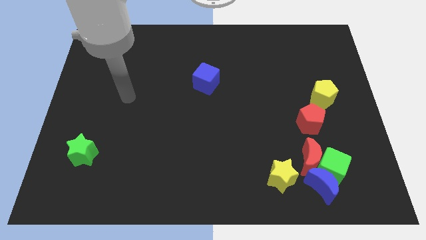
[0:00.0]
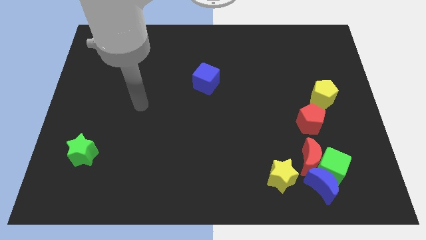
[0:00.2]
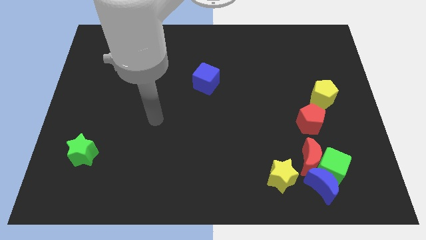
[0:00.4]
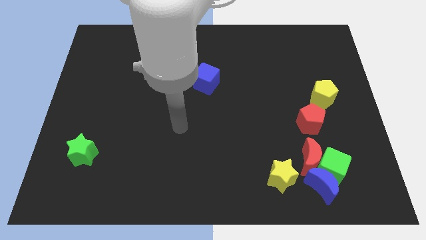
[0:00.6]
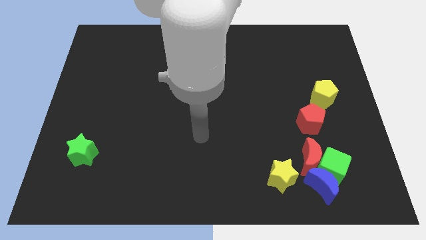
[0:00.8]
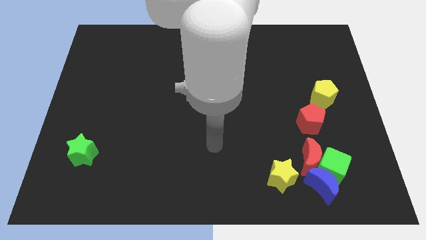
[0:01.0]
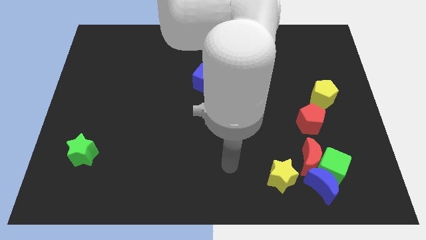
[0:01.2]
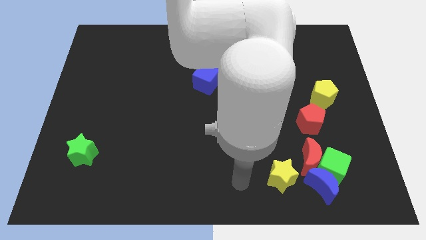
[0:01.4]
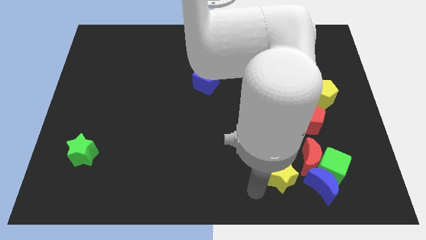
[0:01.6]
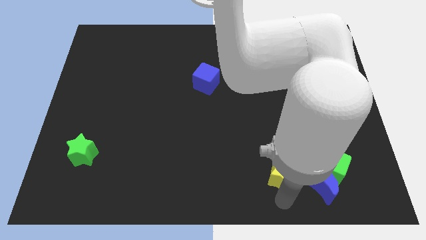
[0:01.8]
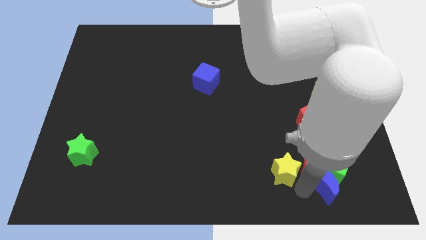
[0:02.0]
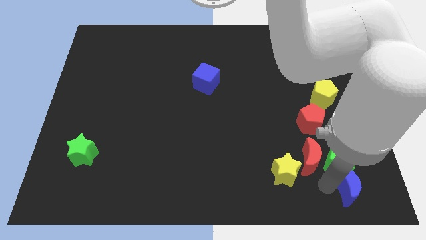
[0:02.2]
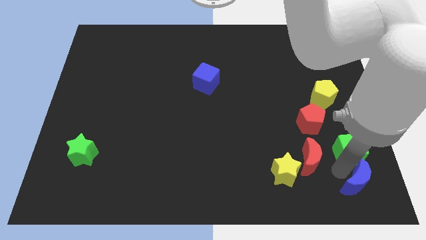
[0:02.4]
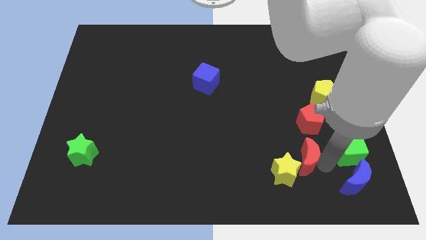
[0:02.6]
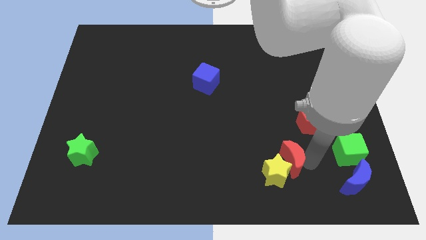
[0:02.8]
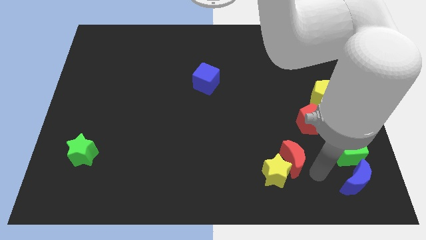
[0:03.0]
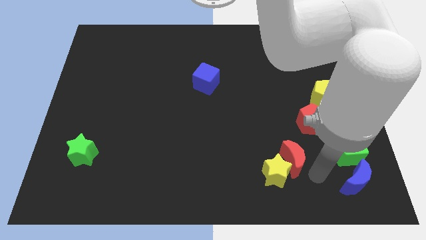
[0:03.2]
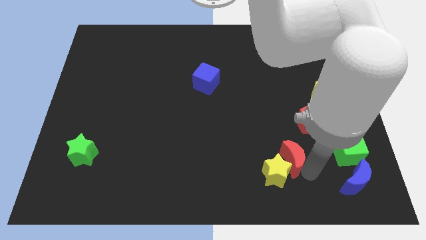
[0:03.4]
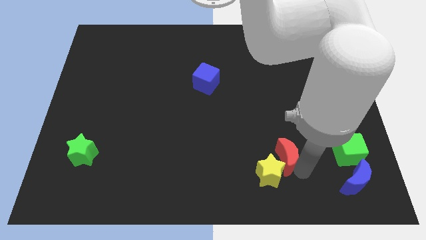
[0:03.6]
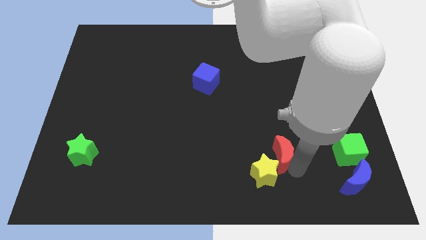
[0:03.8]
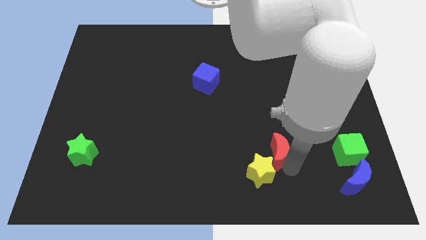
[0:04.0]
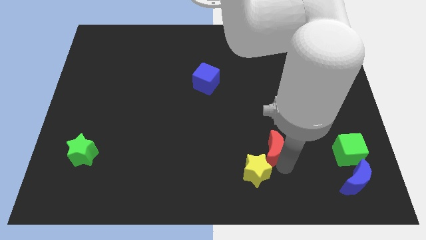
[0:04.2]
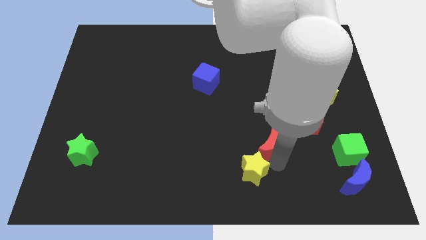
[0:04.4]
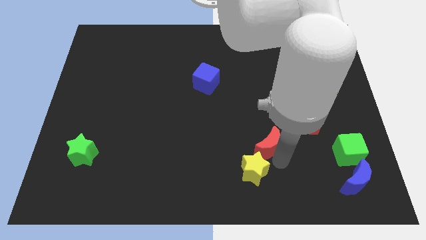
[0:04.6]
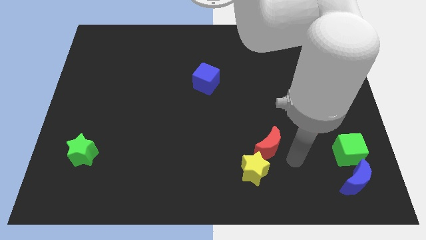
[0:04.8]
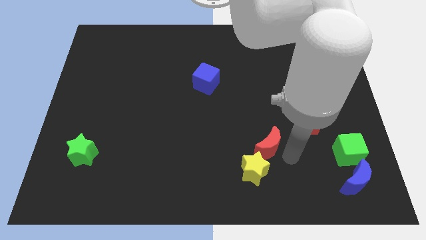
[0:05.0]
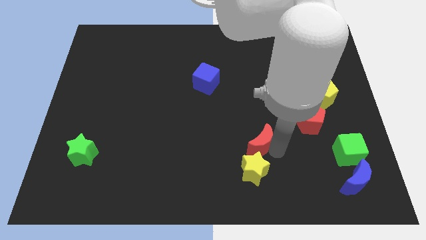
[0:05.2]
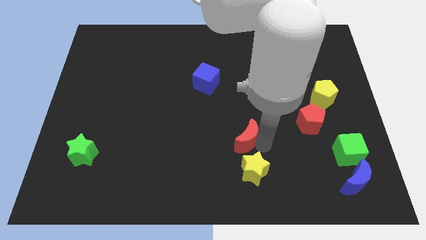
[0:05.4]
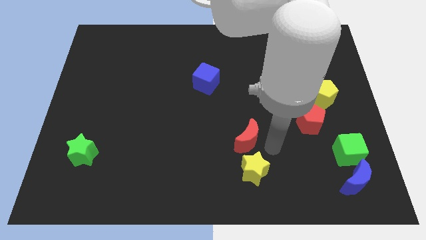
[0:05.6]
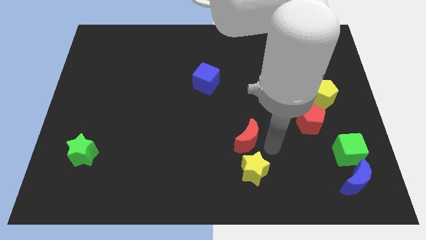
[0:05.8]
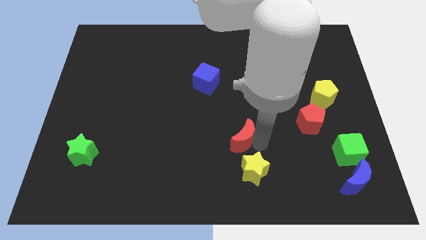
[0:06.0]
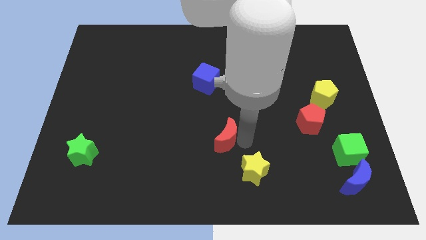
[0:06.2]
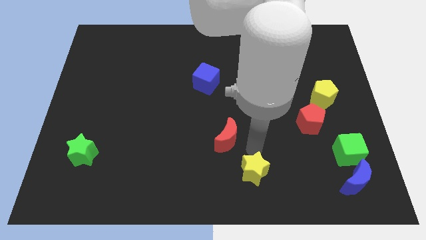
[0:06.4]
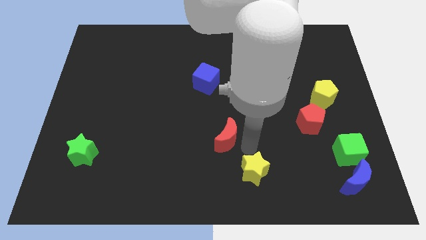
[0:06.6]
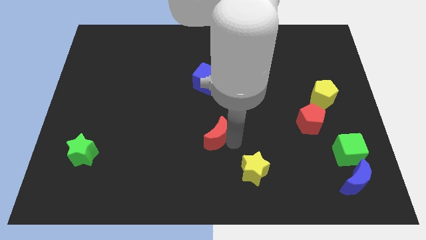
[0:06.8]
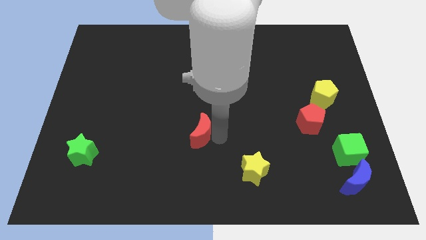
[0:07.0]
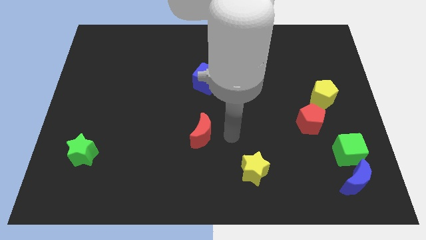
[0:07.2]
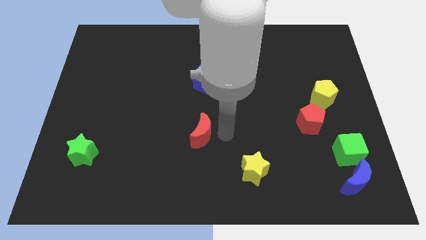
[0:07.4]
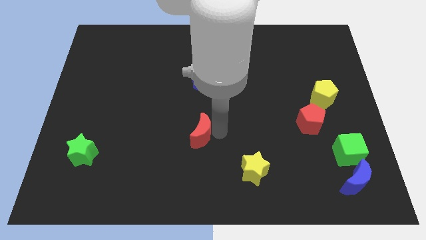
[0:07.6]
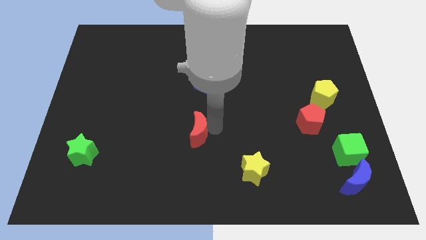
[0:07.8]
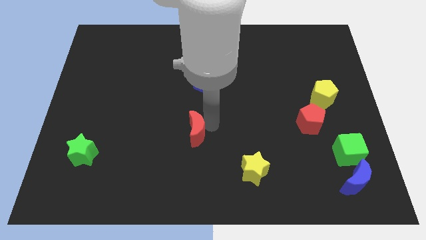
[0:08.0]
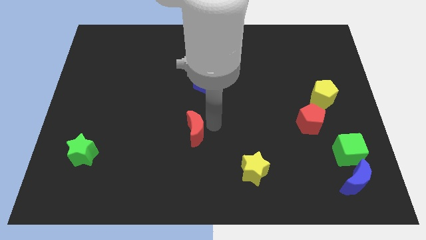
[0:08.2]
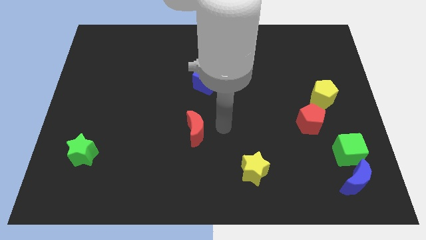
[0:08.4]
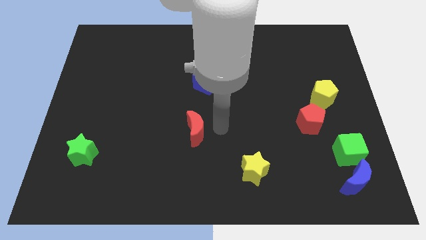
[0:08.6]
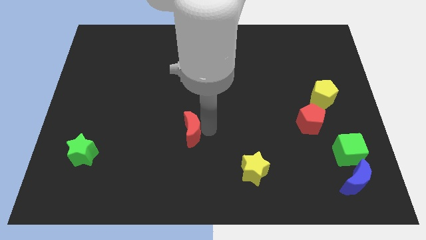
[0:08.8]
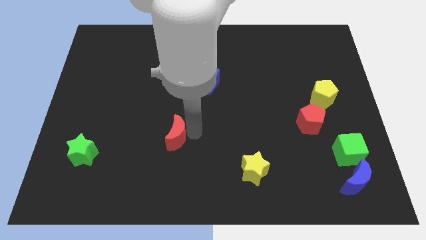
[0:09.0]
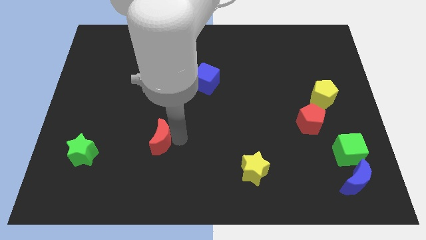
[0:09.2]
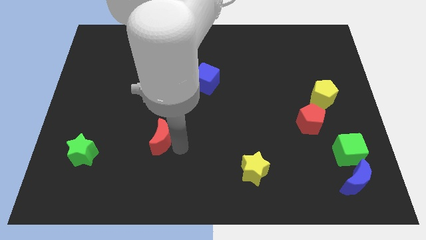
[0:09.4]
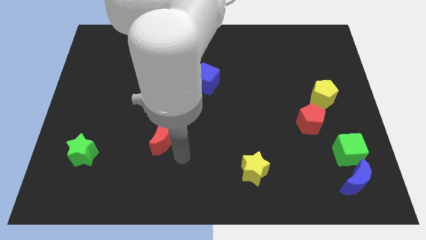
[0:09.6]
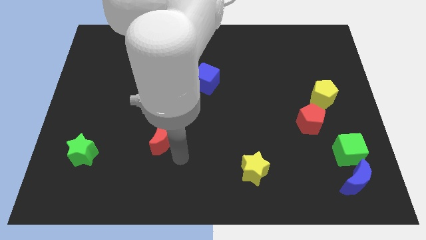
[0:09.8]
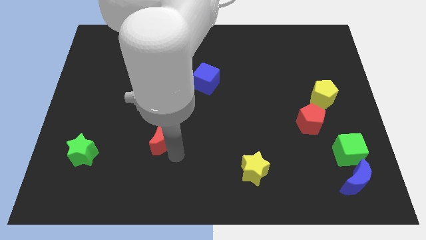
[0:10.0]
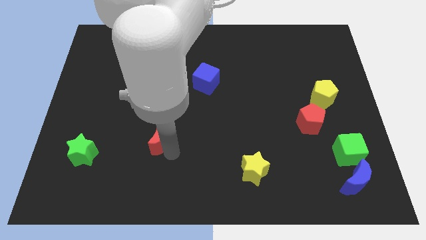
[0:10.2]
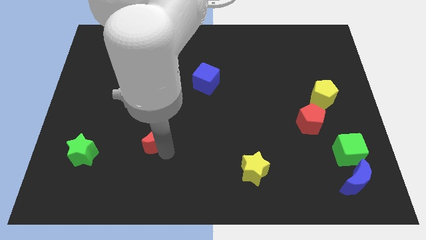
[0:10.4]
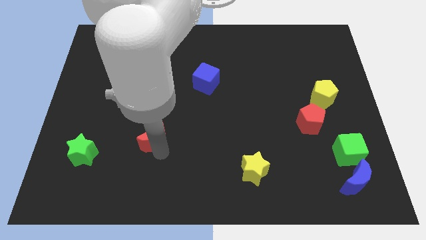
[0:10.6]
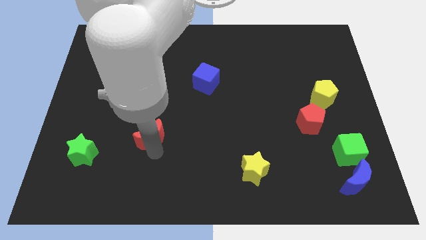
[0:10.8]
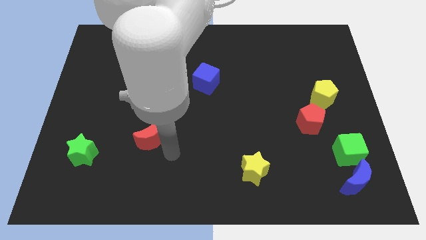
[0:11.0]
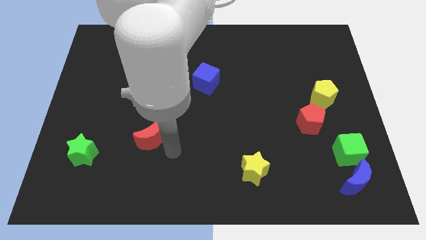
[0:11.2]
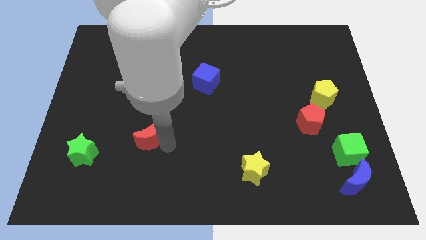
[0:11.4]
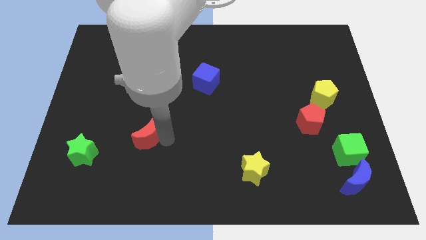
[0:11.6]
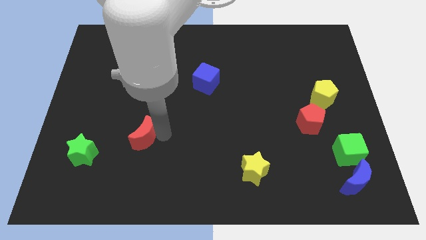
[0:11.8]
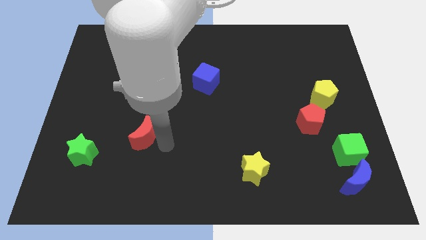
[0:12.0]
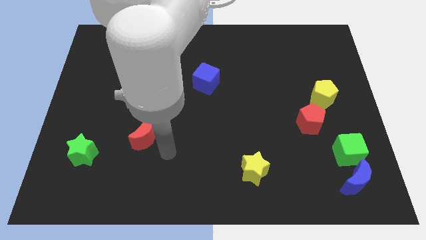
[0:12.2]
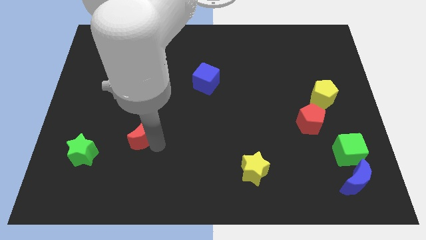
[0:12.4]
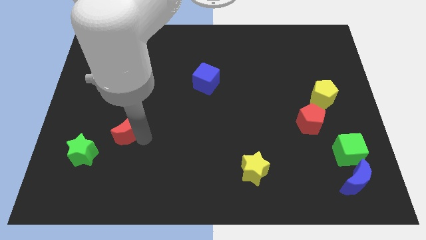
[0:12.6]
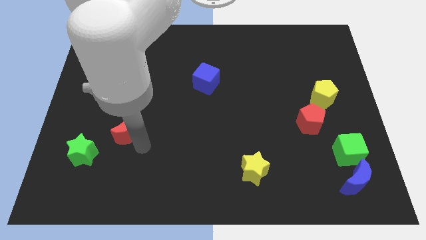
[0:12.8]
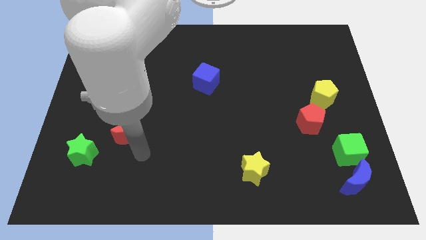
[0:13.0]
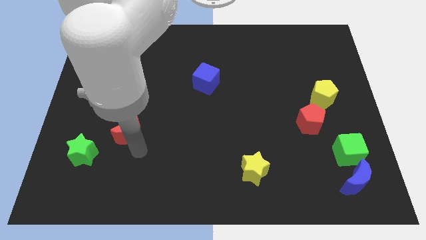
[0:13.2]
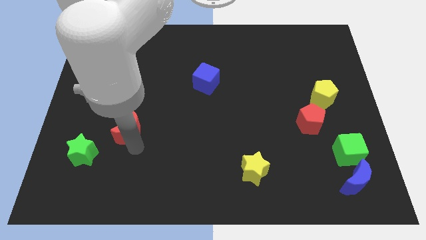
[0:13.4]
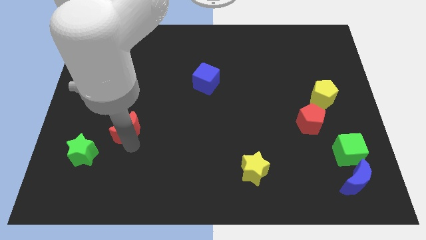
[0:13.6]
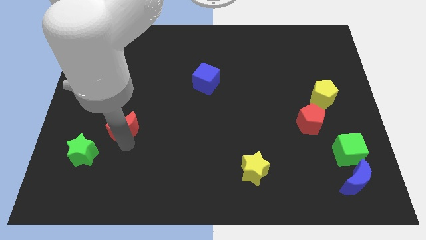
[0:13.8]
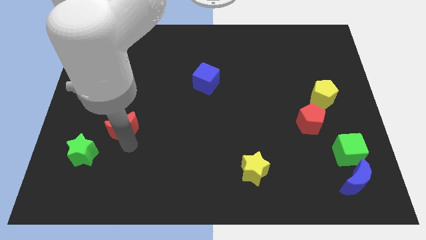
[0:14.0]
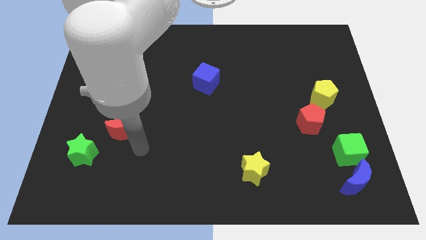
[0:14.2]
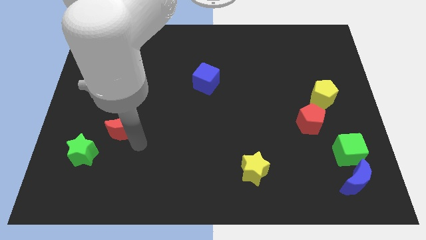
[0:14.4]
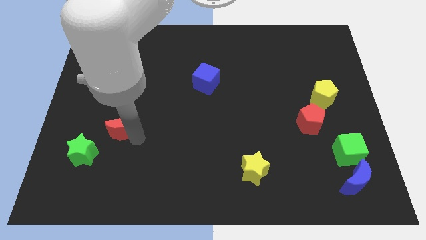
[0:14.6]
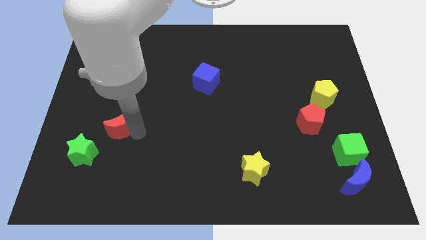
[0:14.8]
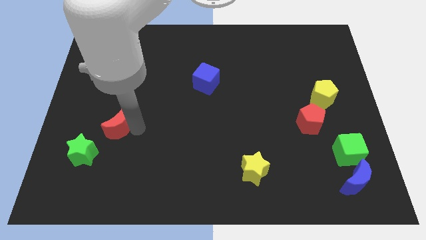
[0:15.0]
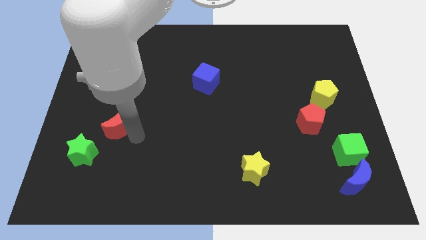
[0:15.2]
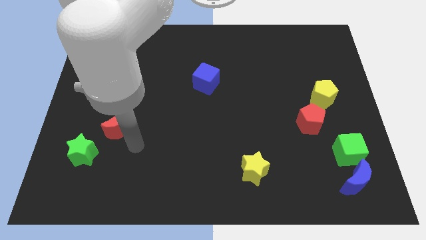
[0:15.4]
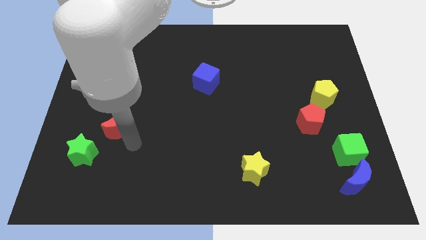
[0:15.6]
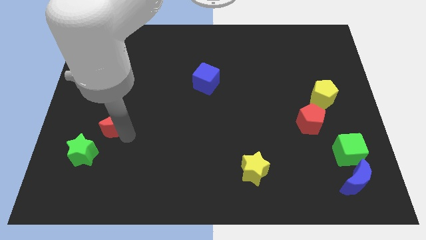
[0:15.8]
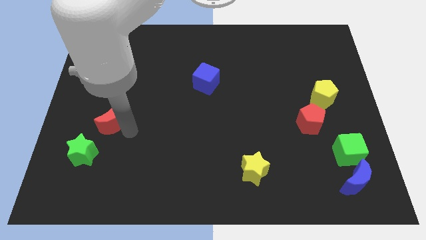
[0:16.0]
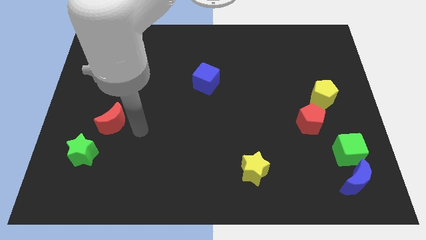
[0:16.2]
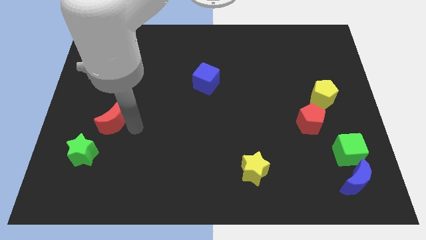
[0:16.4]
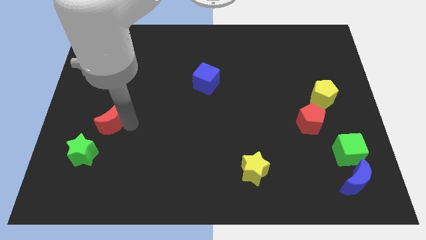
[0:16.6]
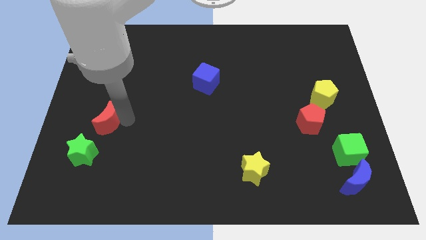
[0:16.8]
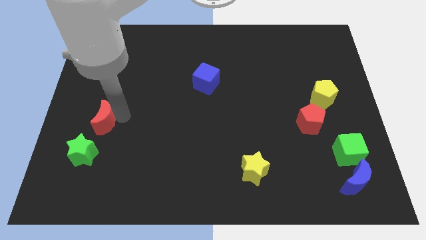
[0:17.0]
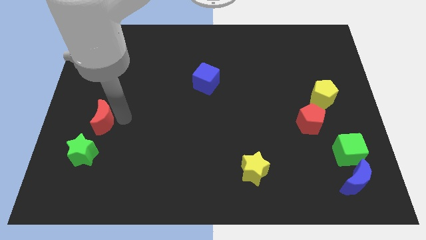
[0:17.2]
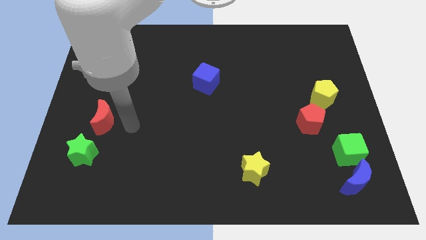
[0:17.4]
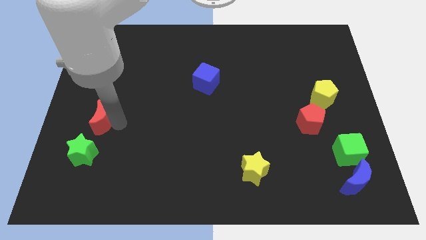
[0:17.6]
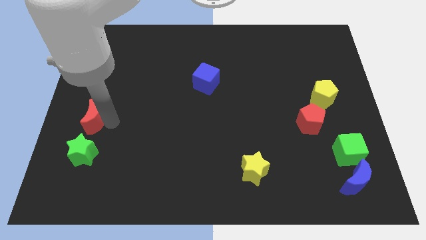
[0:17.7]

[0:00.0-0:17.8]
move the red moon to the left side of the board
